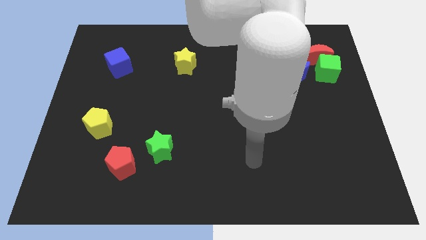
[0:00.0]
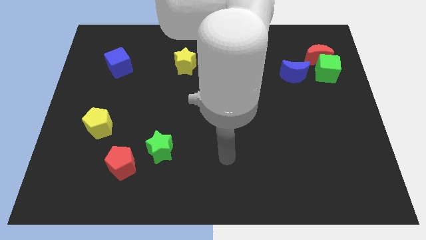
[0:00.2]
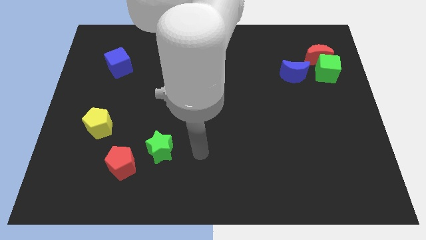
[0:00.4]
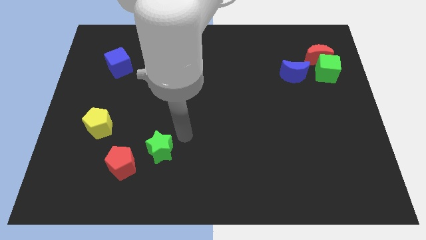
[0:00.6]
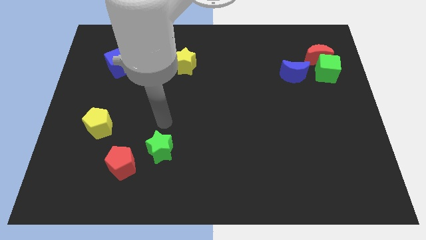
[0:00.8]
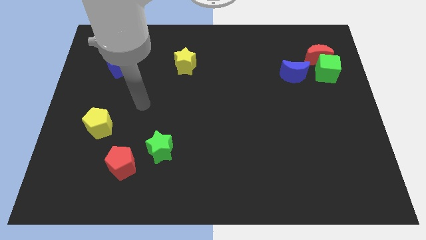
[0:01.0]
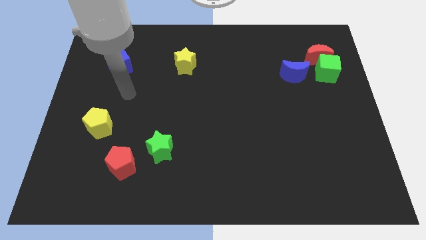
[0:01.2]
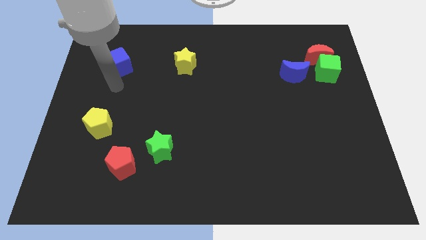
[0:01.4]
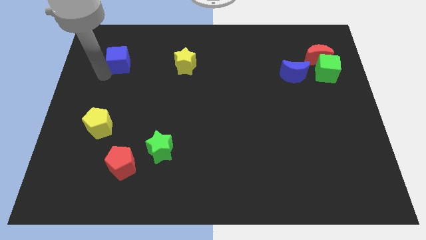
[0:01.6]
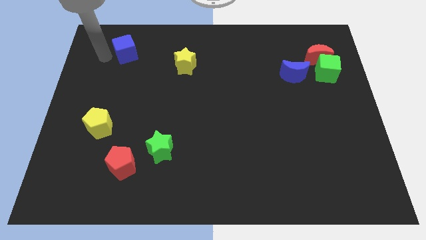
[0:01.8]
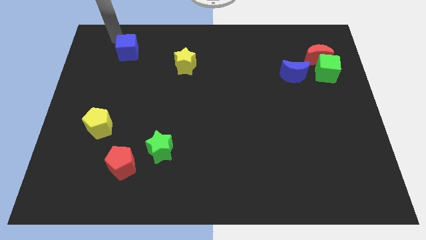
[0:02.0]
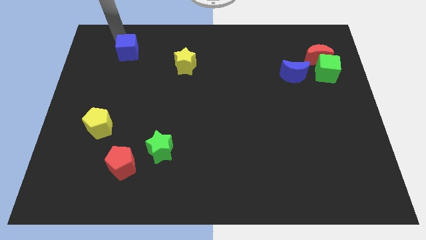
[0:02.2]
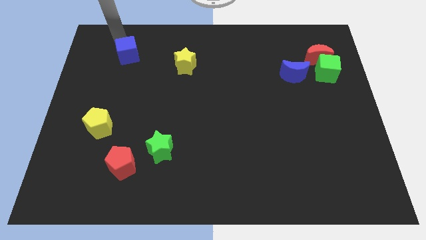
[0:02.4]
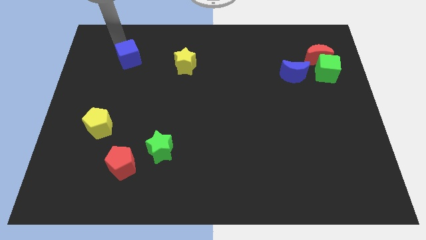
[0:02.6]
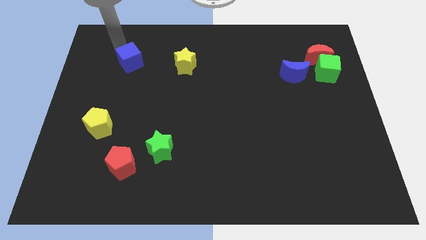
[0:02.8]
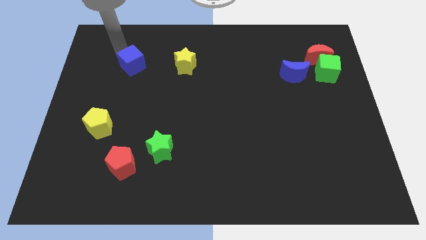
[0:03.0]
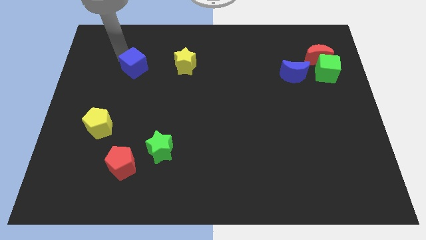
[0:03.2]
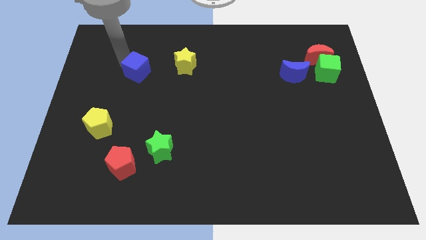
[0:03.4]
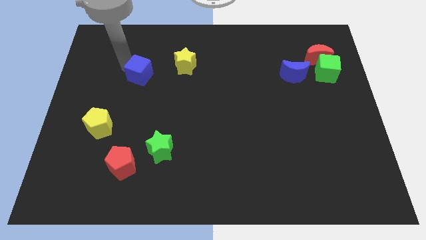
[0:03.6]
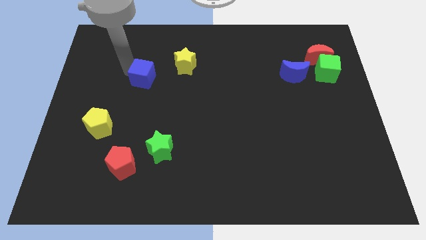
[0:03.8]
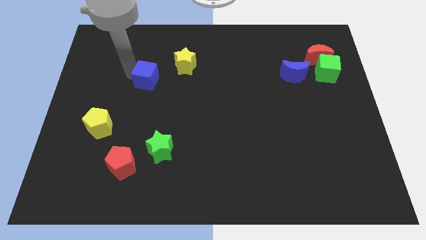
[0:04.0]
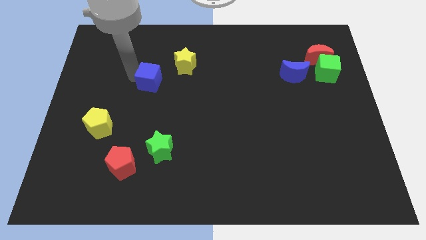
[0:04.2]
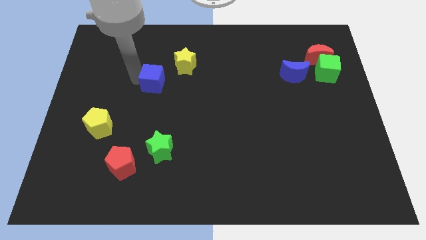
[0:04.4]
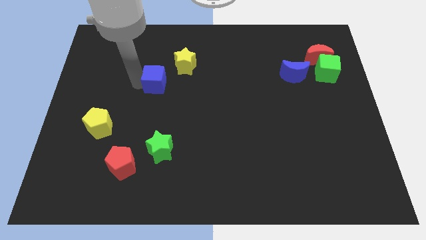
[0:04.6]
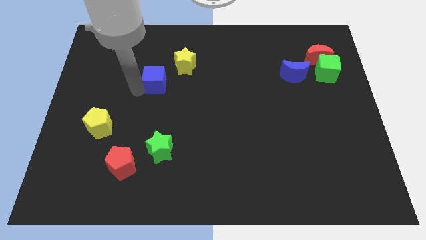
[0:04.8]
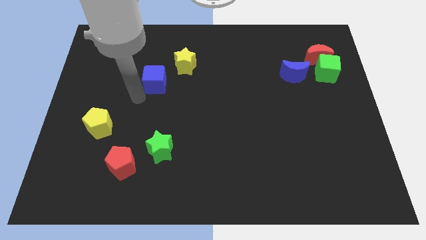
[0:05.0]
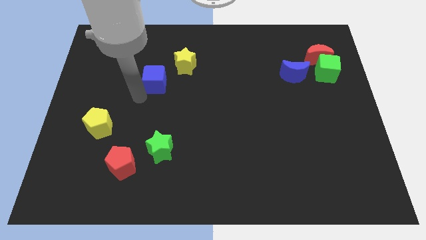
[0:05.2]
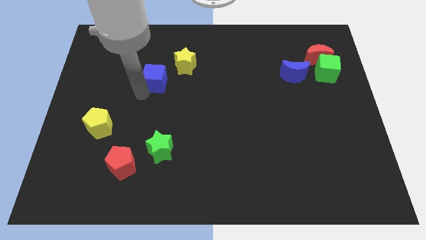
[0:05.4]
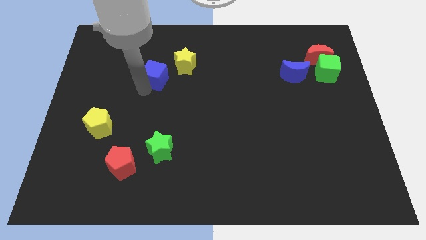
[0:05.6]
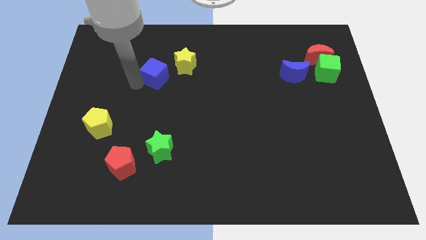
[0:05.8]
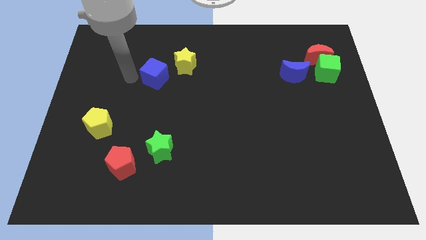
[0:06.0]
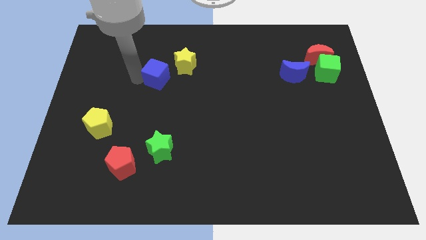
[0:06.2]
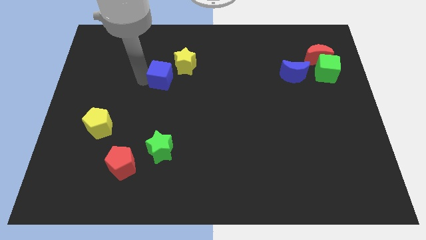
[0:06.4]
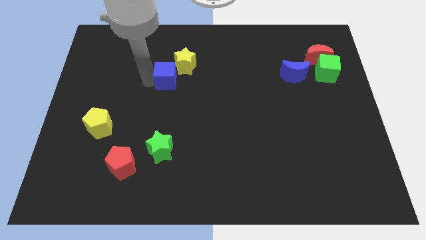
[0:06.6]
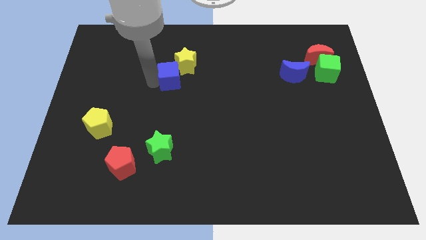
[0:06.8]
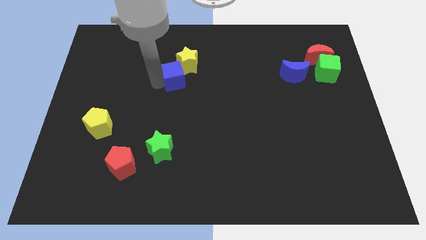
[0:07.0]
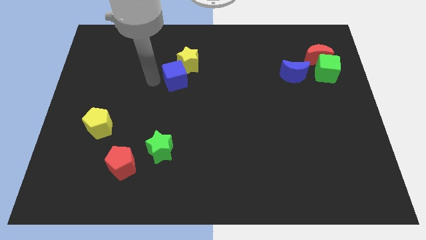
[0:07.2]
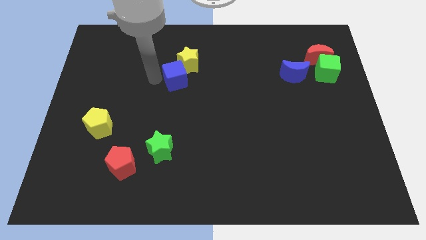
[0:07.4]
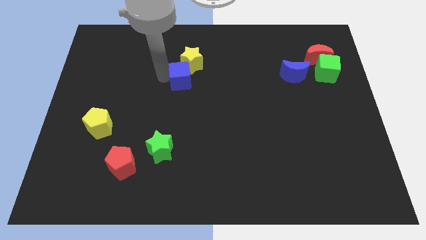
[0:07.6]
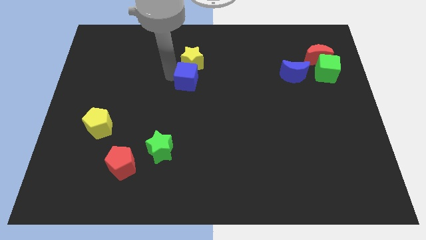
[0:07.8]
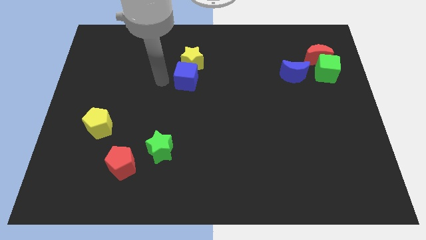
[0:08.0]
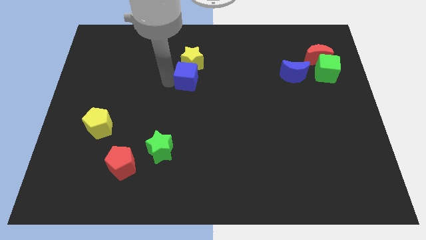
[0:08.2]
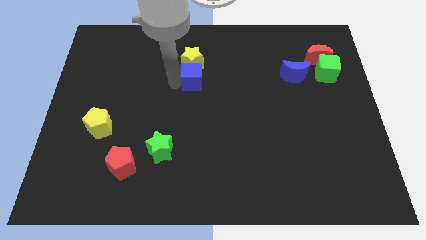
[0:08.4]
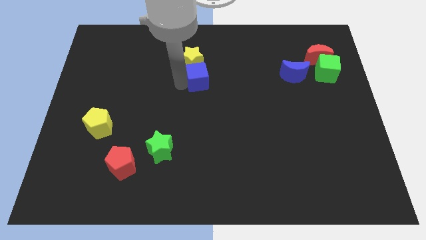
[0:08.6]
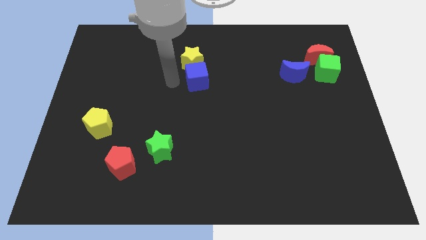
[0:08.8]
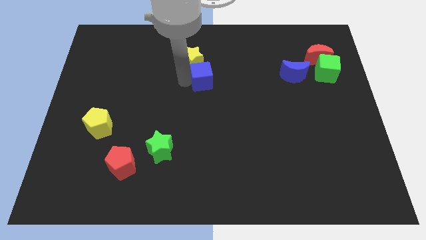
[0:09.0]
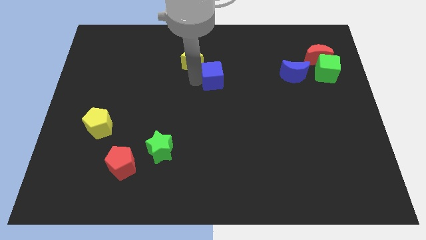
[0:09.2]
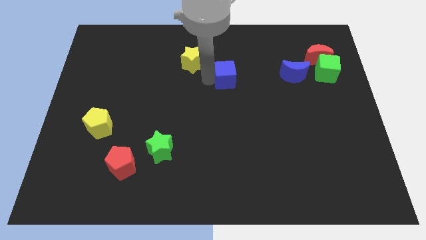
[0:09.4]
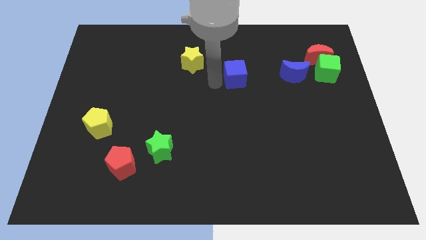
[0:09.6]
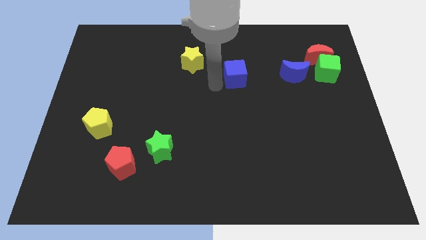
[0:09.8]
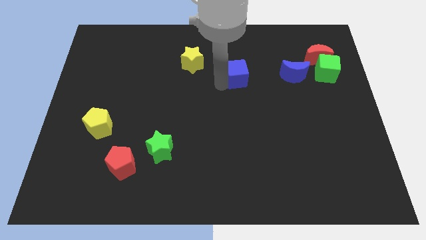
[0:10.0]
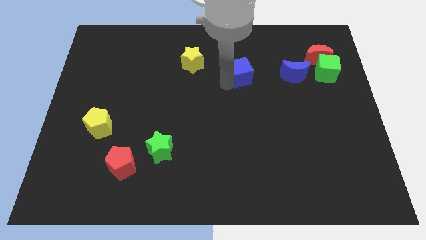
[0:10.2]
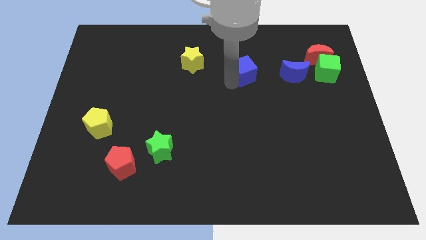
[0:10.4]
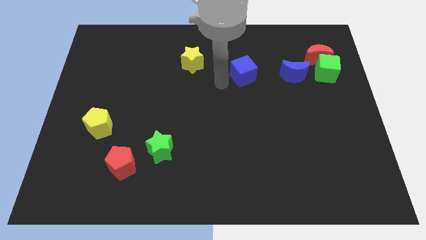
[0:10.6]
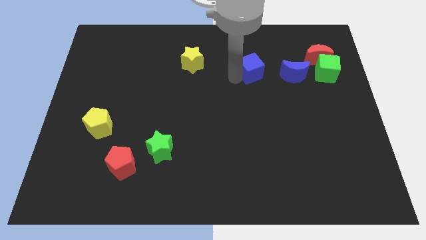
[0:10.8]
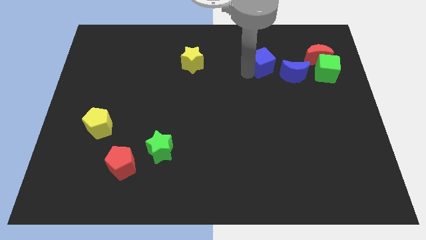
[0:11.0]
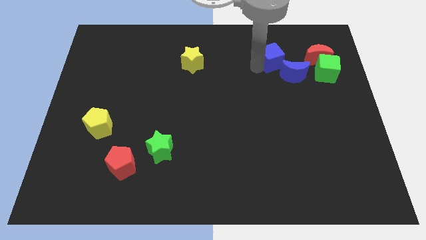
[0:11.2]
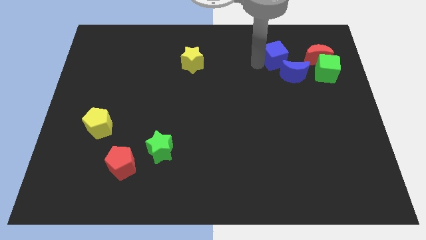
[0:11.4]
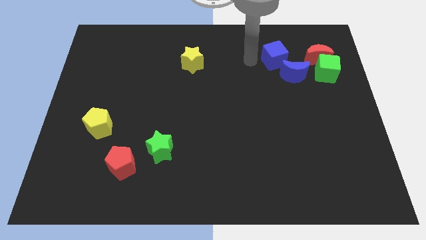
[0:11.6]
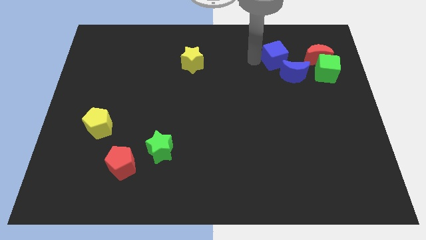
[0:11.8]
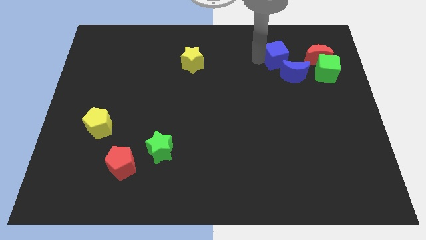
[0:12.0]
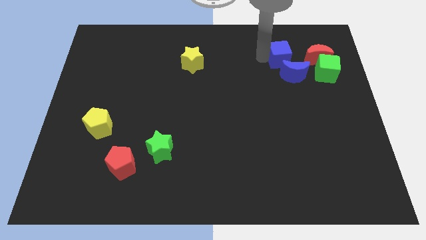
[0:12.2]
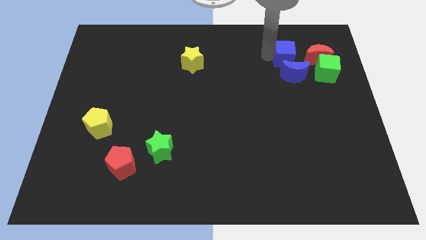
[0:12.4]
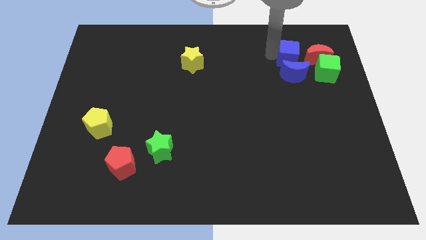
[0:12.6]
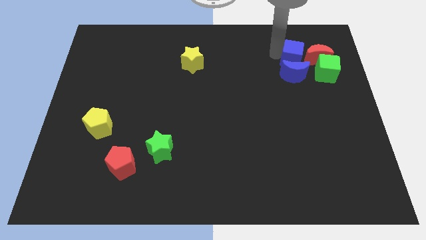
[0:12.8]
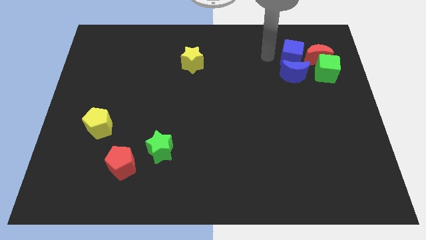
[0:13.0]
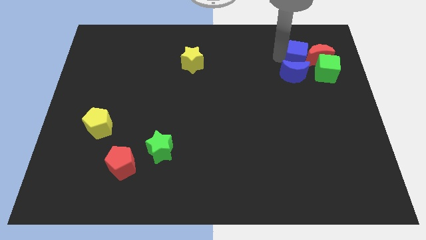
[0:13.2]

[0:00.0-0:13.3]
move the blue cube to the red moon
